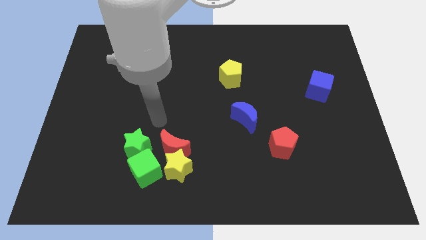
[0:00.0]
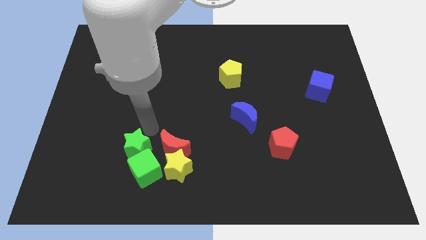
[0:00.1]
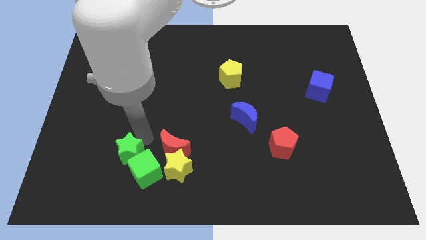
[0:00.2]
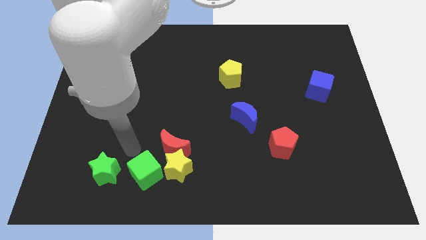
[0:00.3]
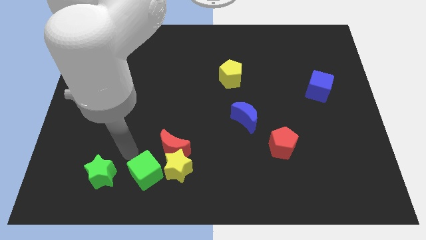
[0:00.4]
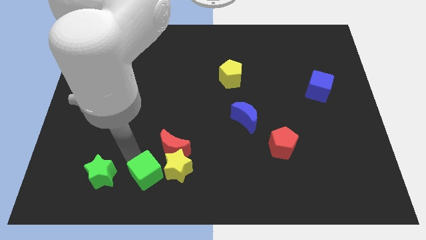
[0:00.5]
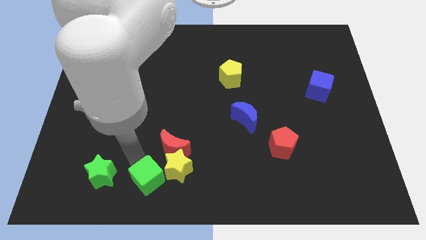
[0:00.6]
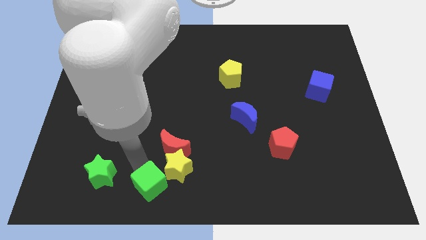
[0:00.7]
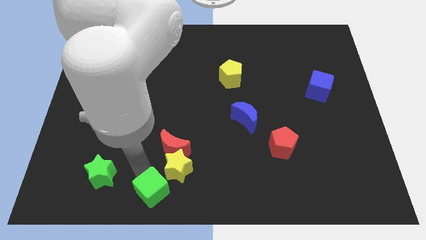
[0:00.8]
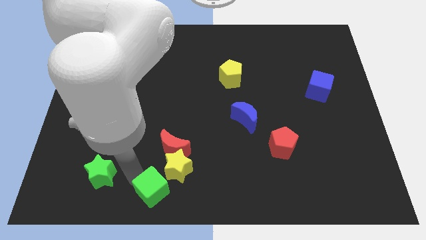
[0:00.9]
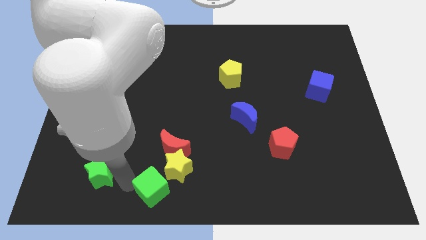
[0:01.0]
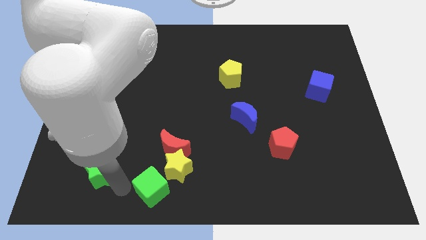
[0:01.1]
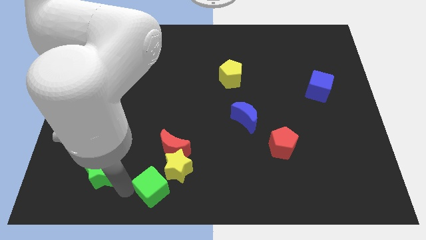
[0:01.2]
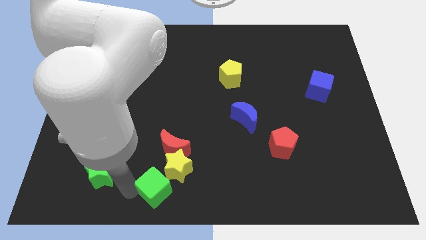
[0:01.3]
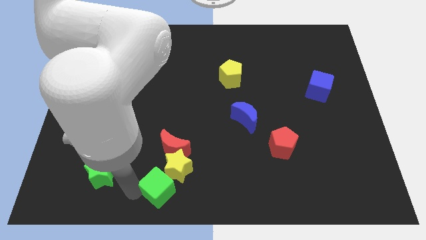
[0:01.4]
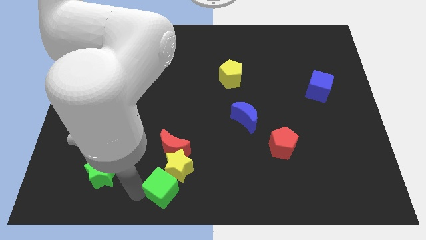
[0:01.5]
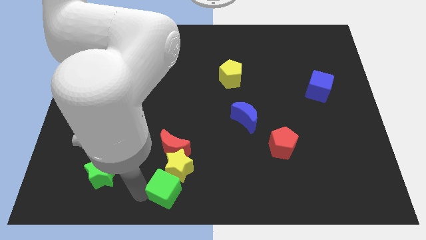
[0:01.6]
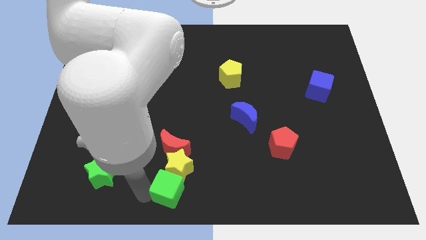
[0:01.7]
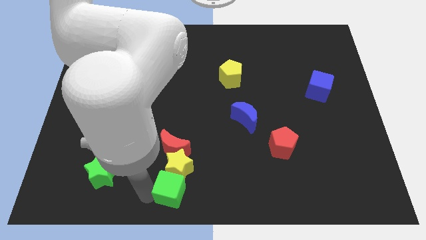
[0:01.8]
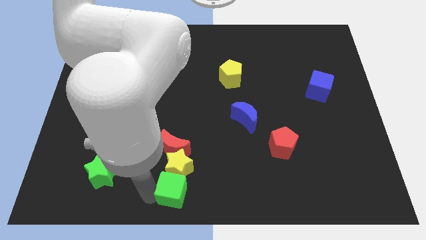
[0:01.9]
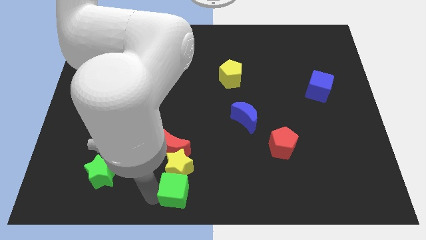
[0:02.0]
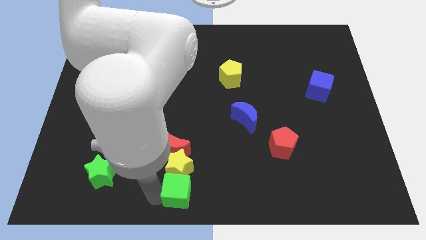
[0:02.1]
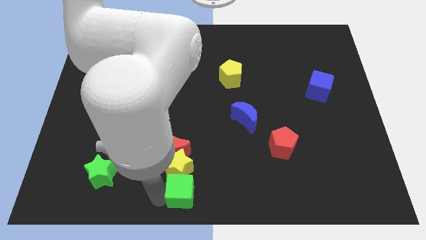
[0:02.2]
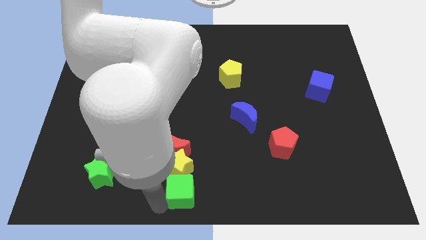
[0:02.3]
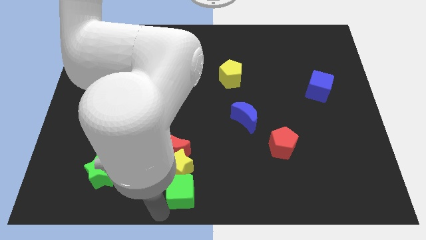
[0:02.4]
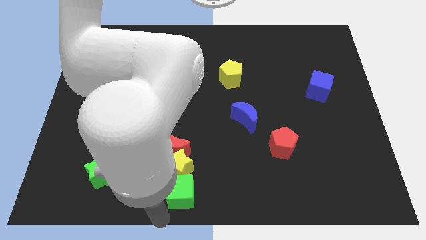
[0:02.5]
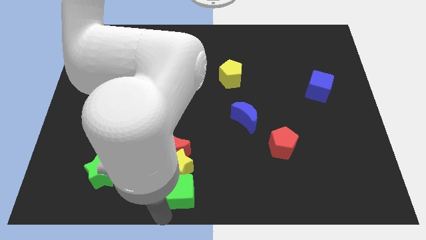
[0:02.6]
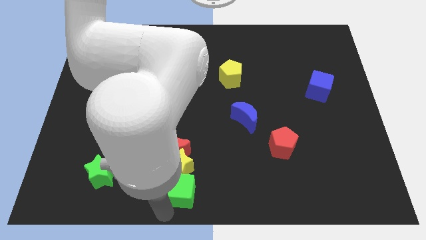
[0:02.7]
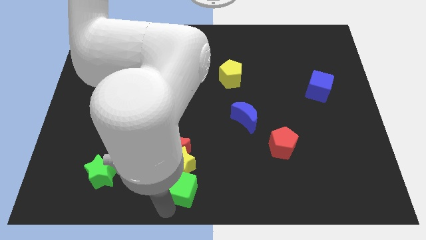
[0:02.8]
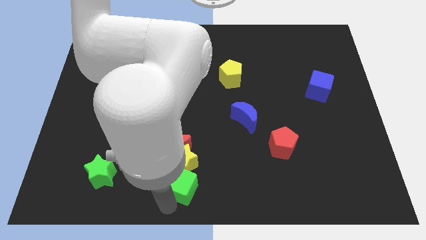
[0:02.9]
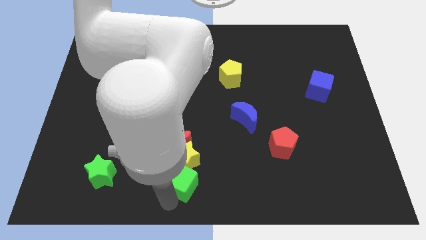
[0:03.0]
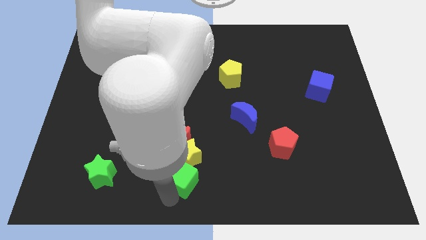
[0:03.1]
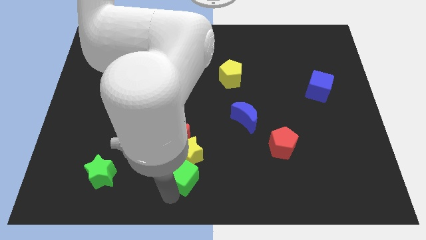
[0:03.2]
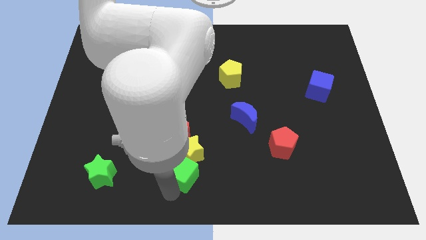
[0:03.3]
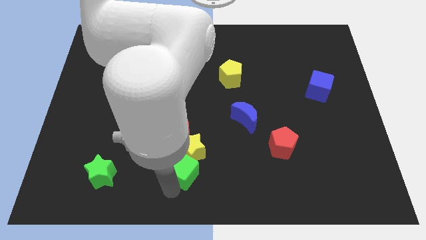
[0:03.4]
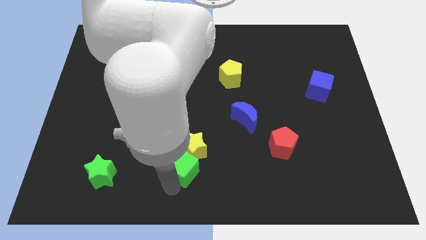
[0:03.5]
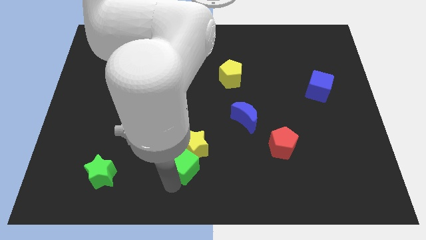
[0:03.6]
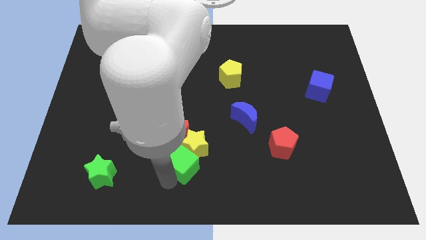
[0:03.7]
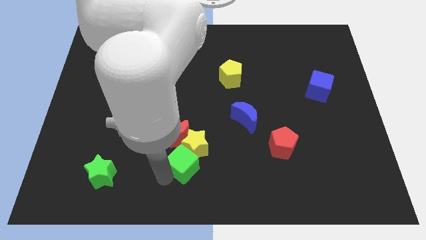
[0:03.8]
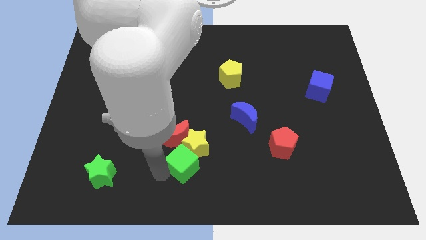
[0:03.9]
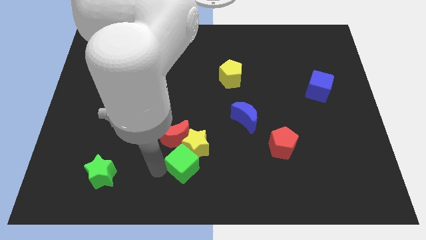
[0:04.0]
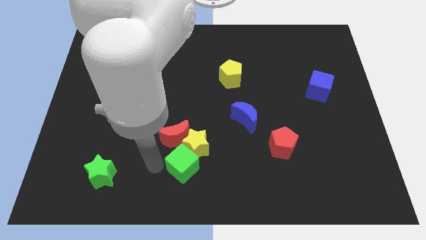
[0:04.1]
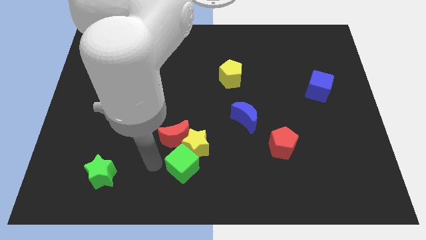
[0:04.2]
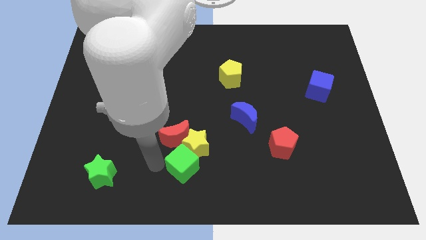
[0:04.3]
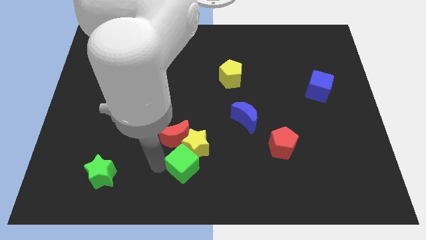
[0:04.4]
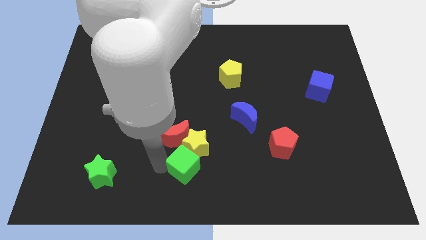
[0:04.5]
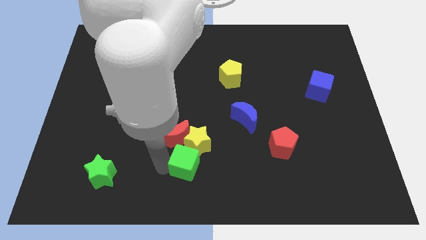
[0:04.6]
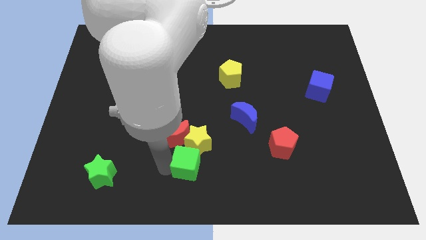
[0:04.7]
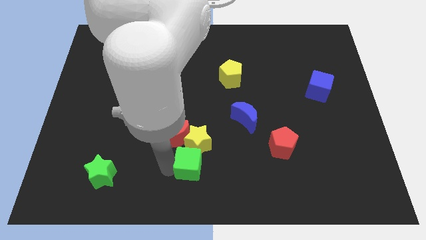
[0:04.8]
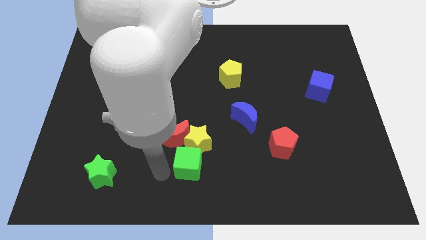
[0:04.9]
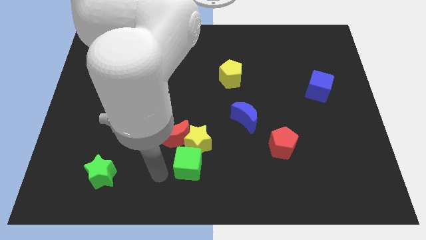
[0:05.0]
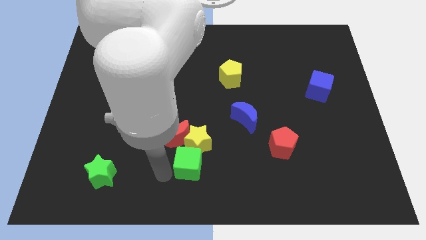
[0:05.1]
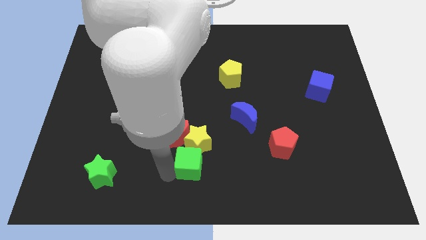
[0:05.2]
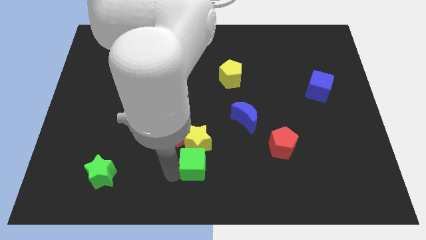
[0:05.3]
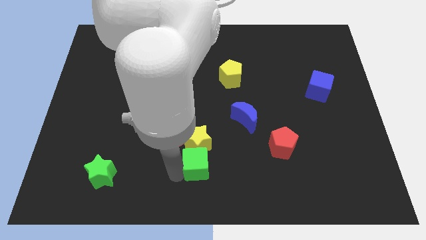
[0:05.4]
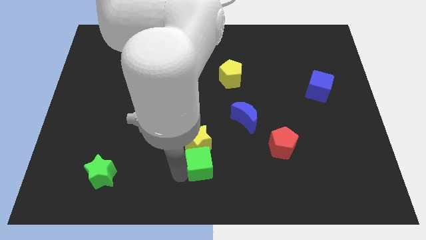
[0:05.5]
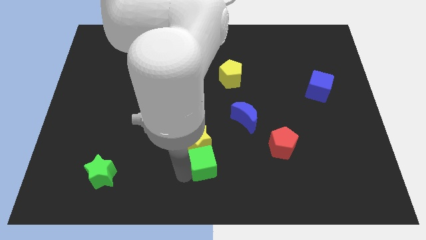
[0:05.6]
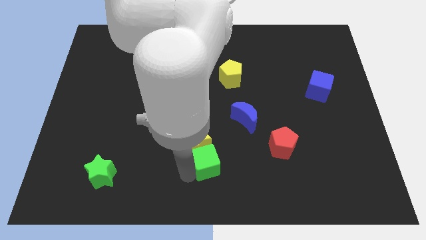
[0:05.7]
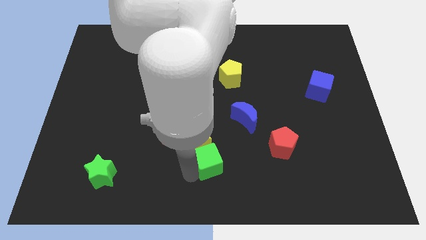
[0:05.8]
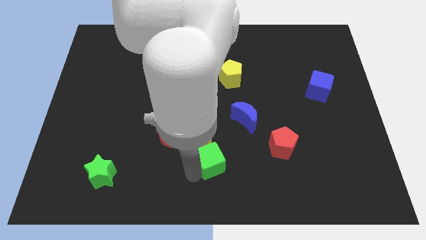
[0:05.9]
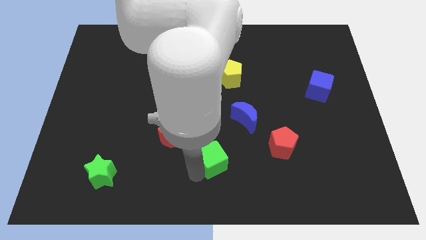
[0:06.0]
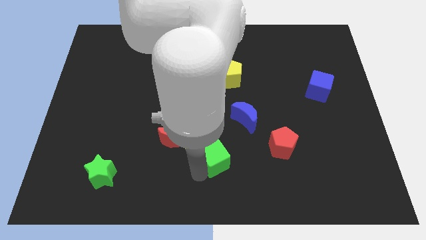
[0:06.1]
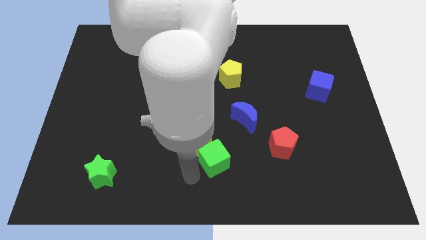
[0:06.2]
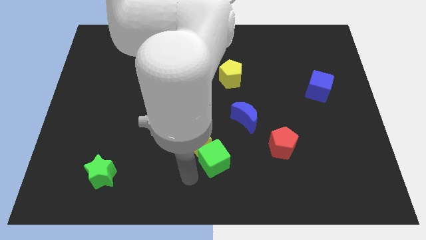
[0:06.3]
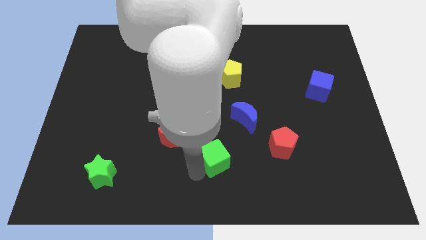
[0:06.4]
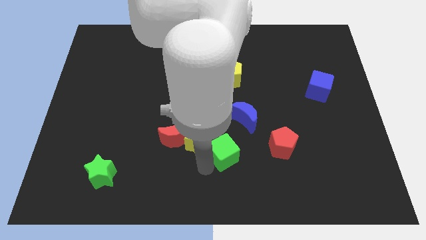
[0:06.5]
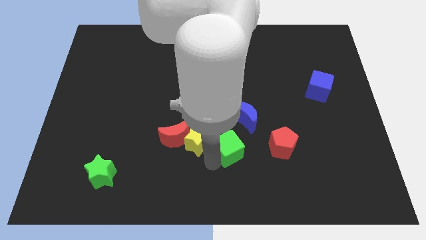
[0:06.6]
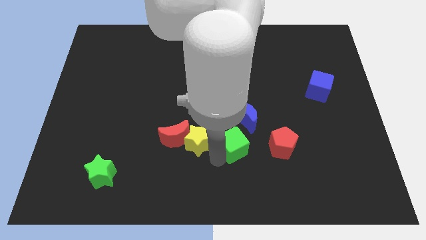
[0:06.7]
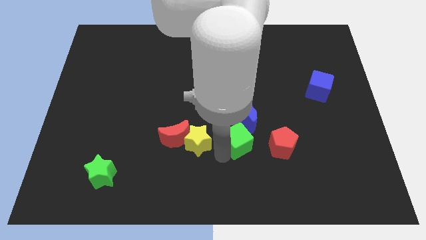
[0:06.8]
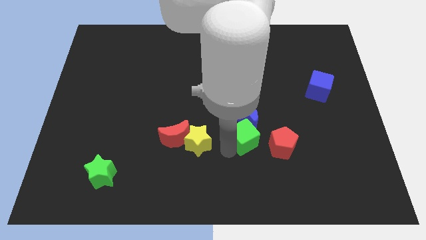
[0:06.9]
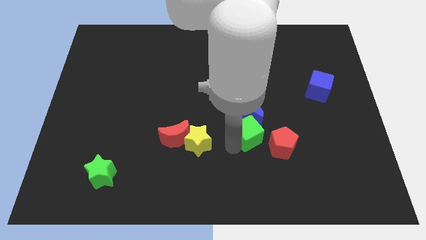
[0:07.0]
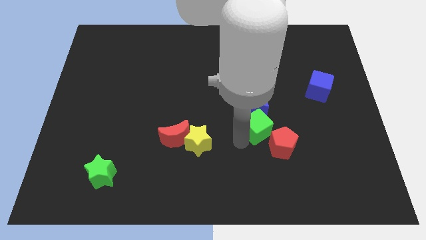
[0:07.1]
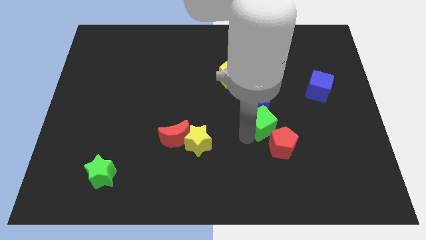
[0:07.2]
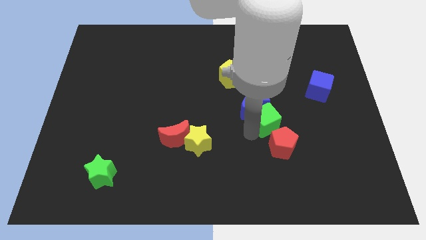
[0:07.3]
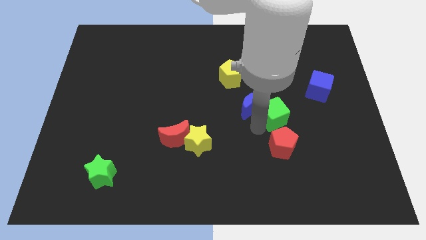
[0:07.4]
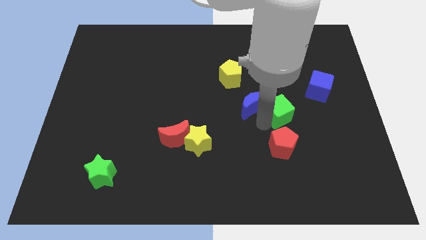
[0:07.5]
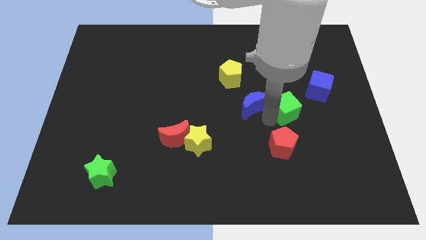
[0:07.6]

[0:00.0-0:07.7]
move the green cube to the bottom left of the blue cube
